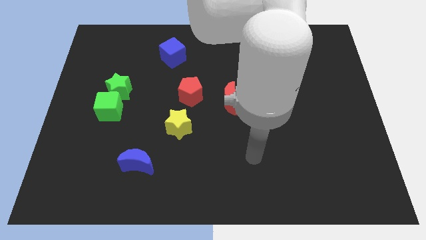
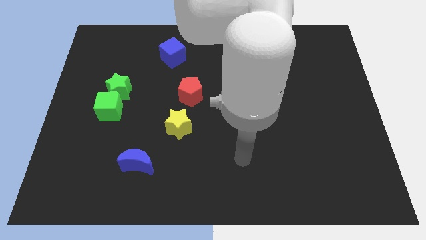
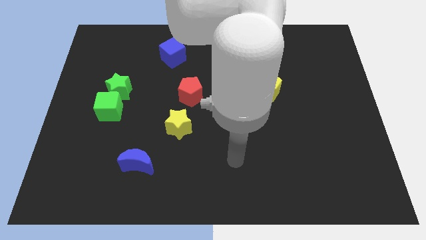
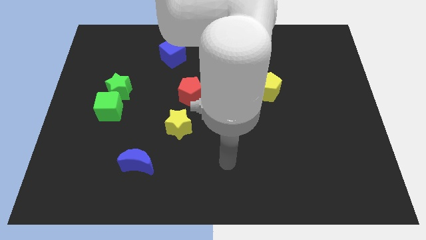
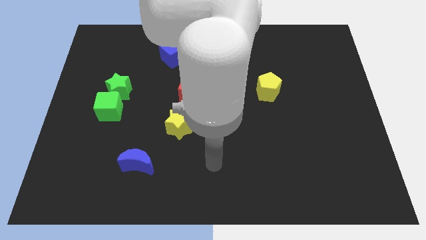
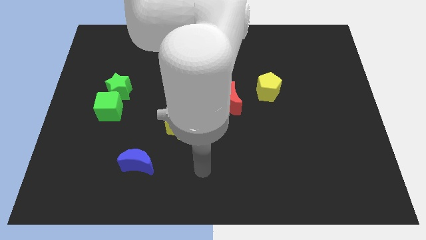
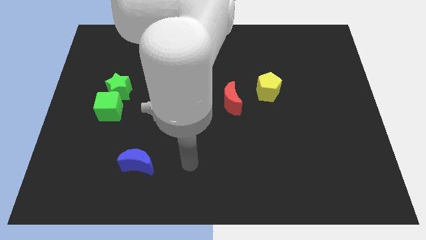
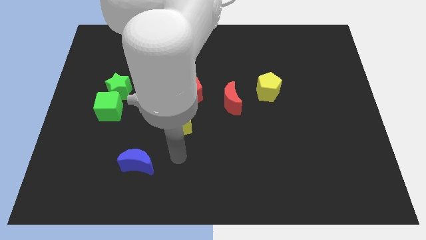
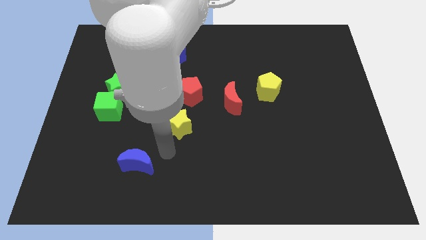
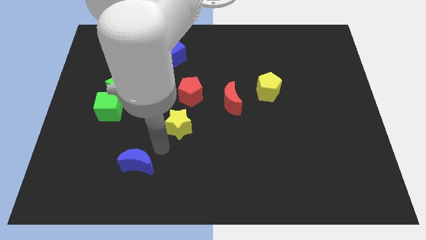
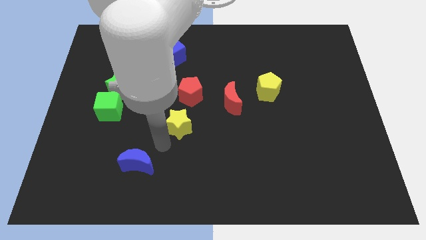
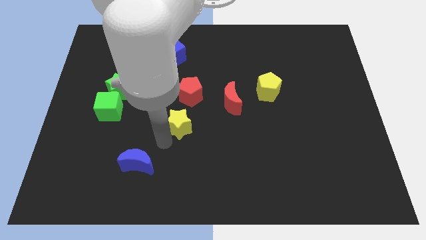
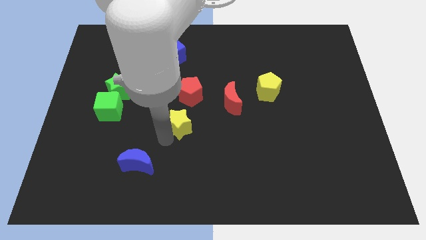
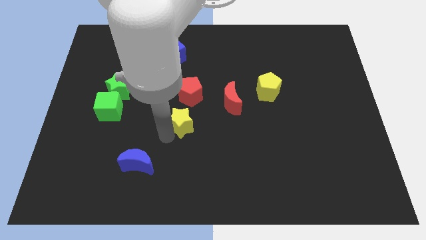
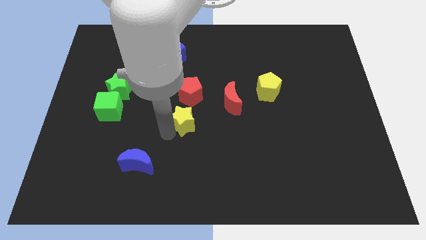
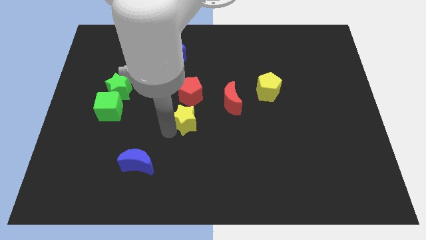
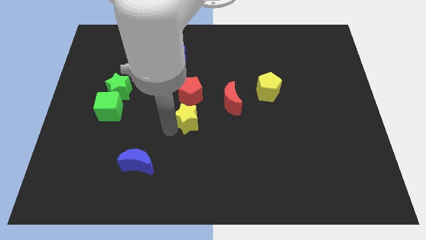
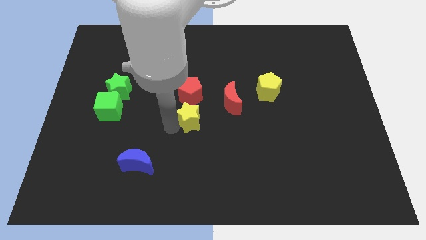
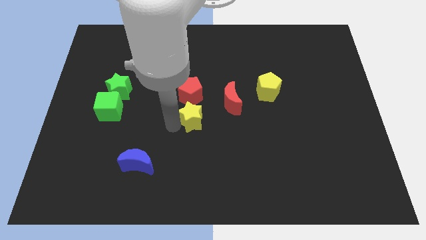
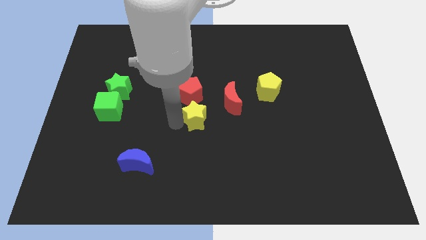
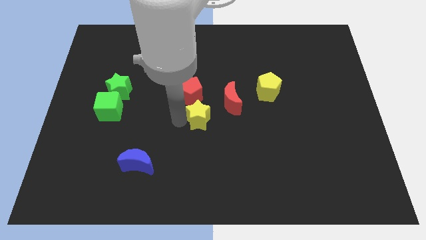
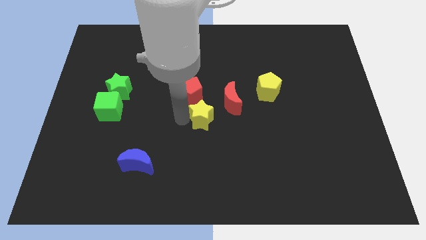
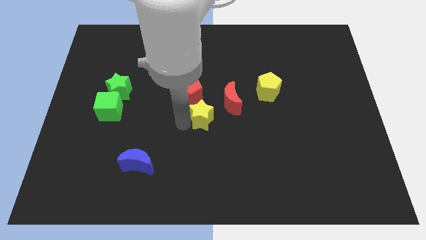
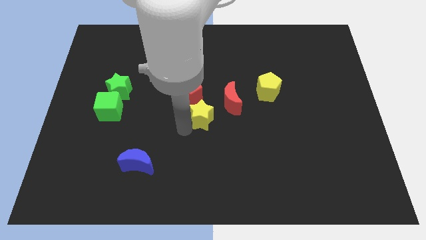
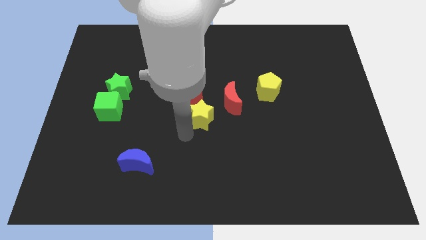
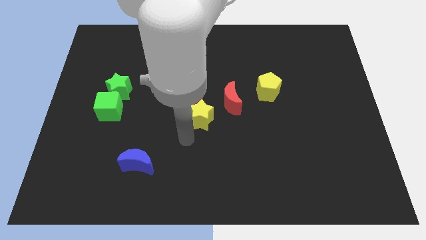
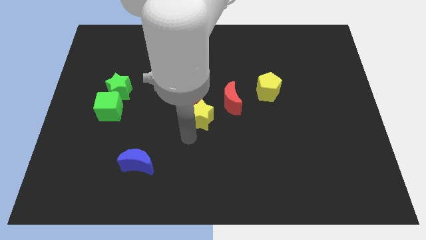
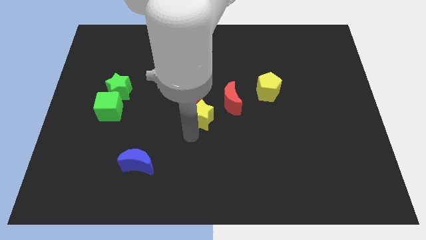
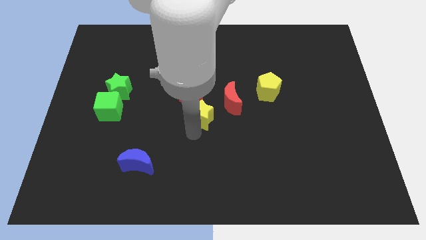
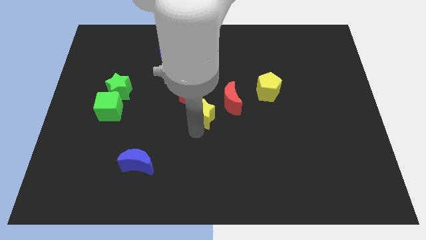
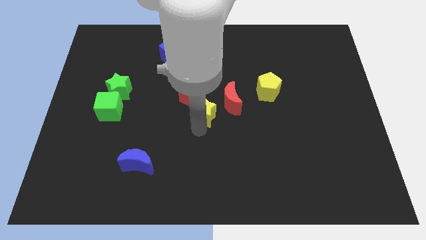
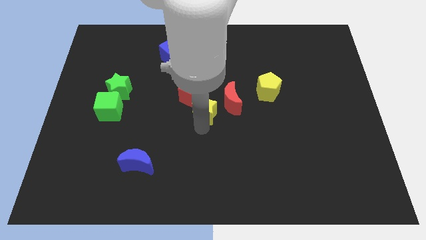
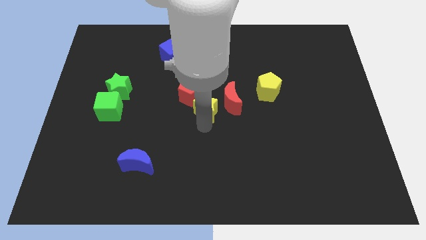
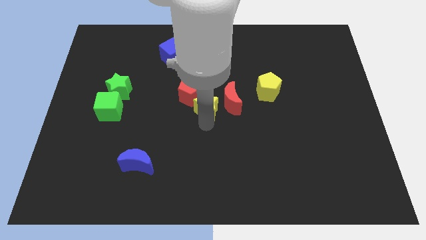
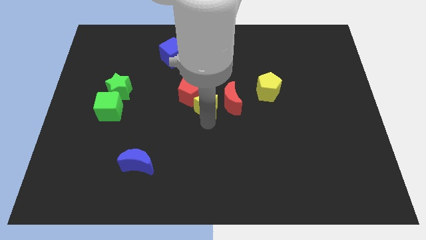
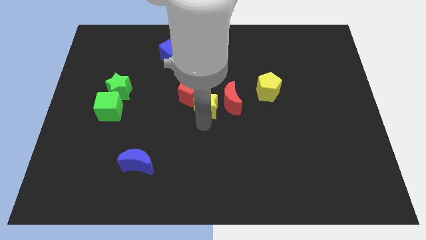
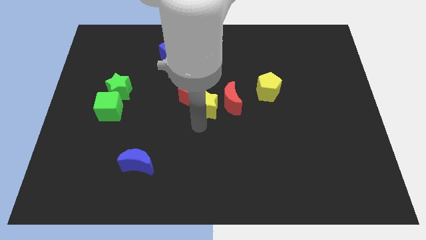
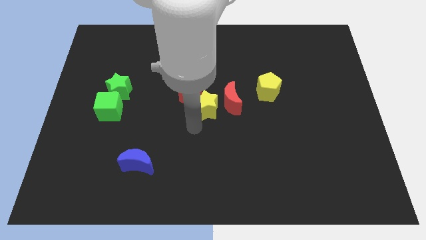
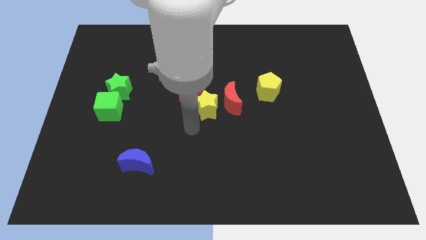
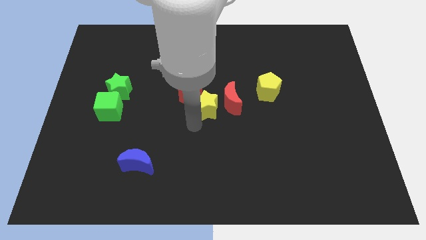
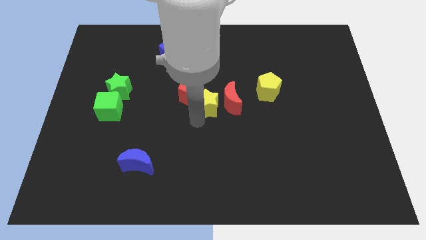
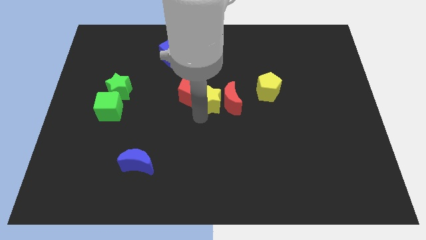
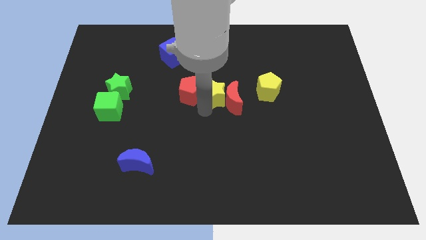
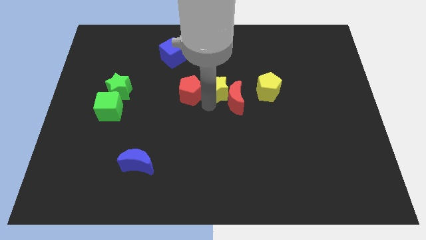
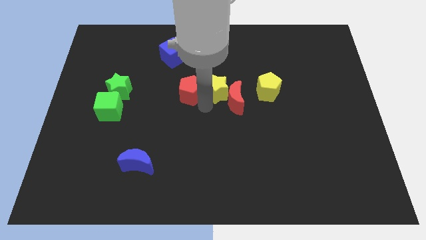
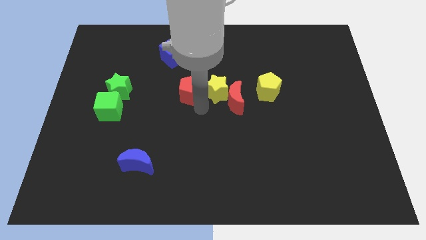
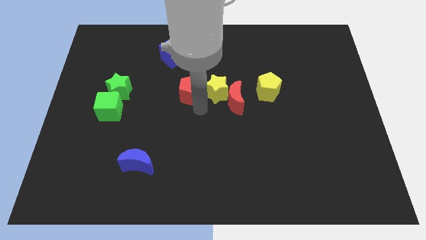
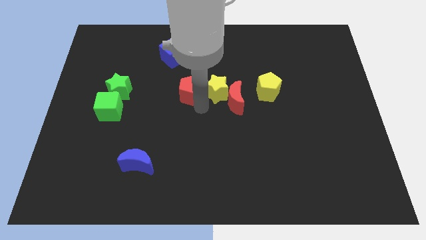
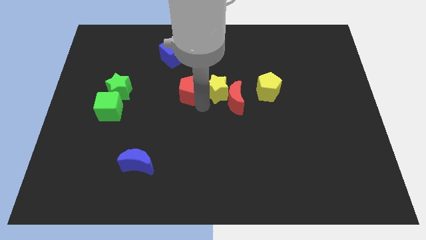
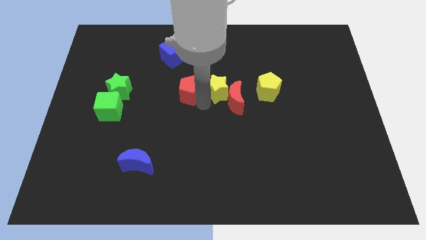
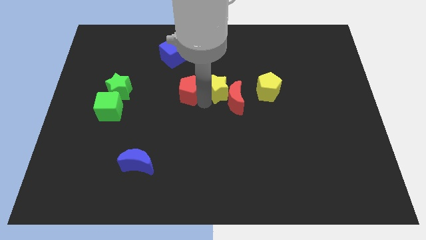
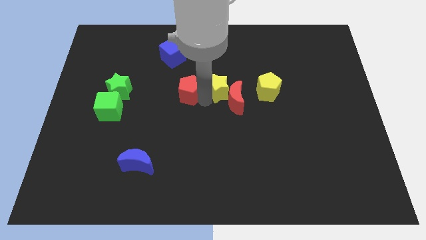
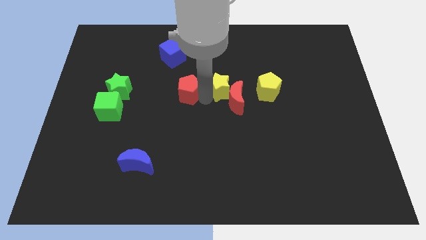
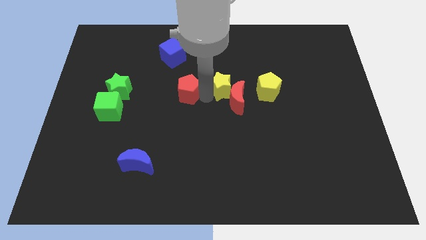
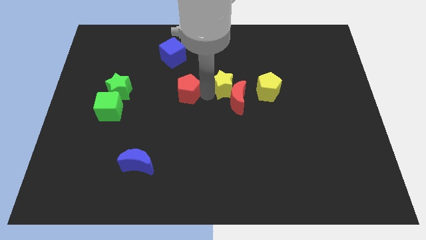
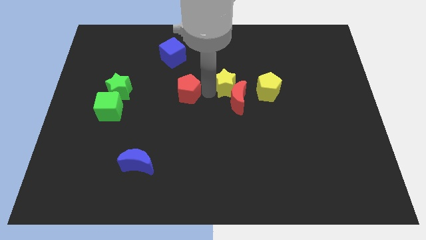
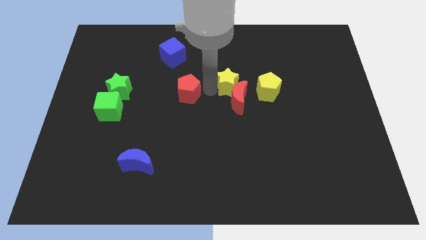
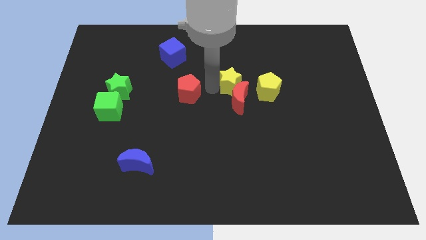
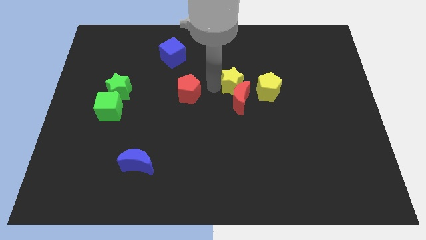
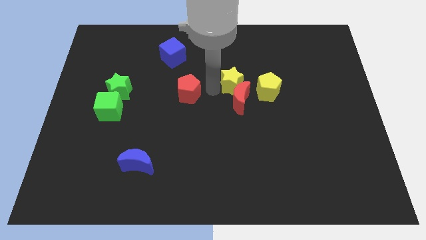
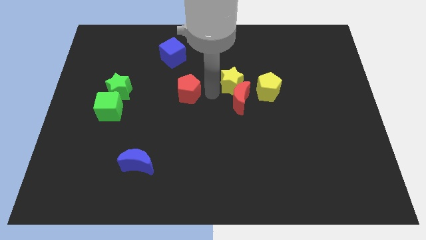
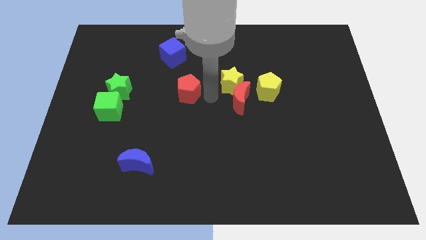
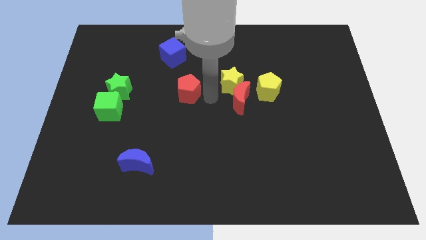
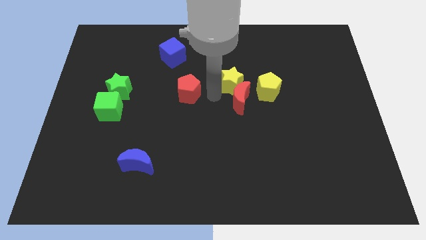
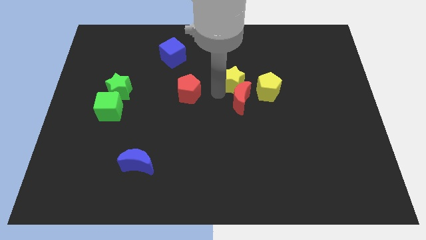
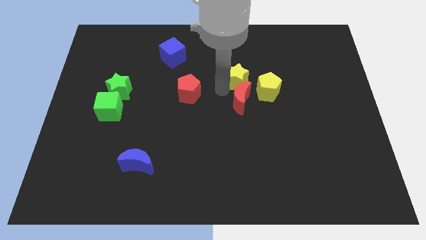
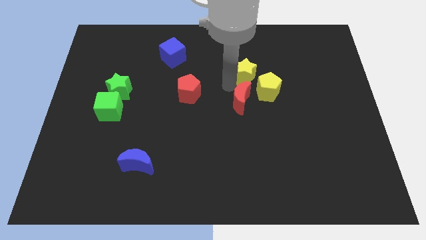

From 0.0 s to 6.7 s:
slide the yellow star up and then to the right

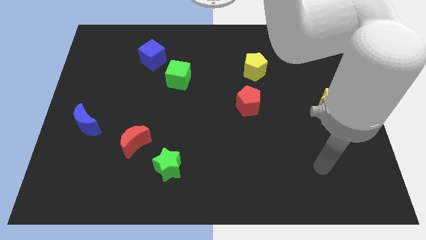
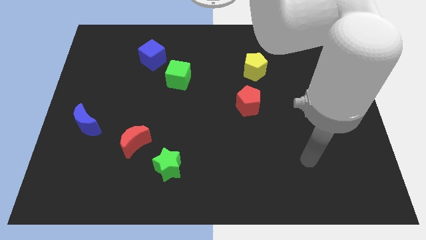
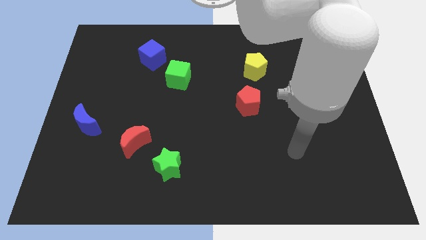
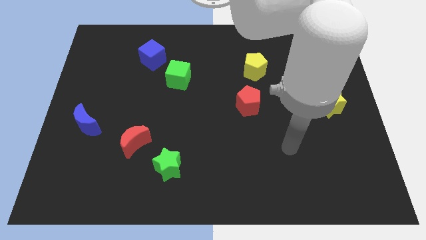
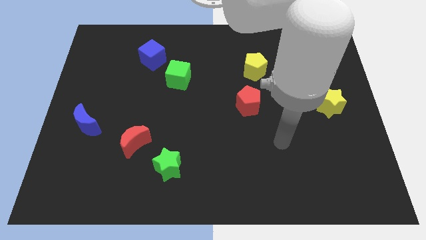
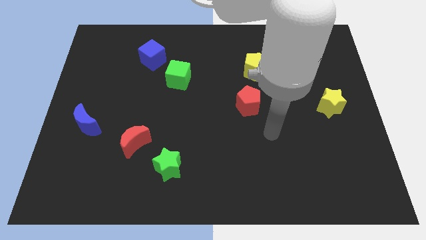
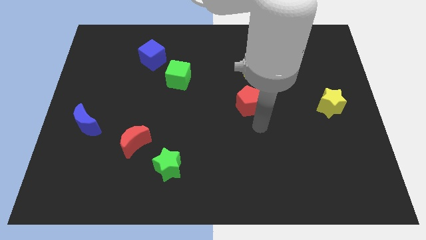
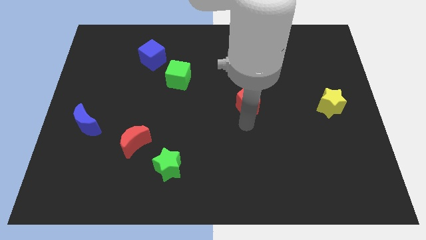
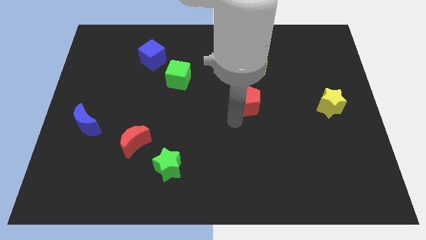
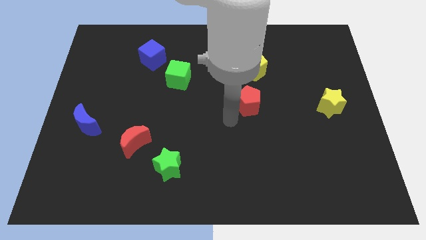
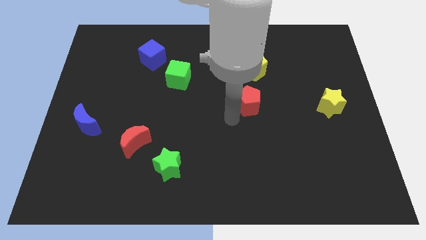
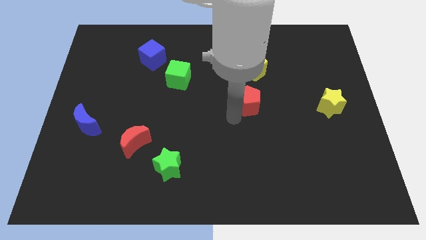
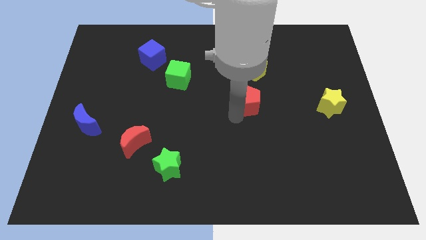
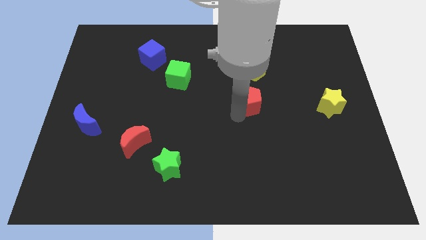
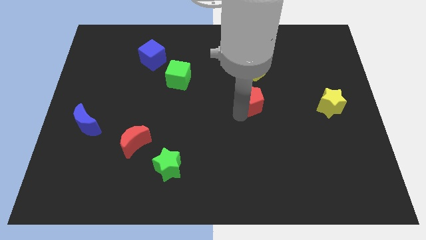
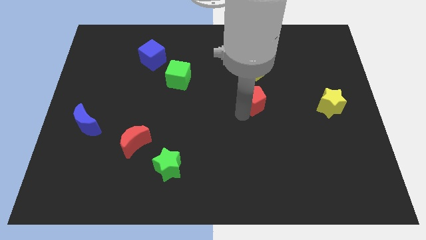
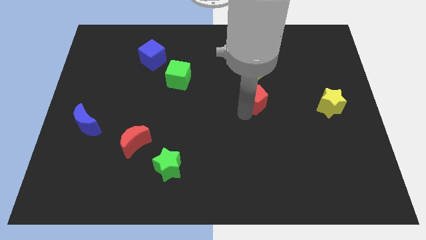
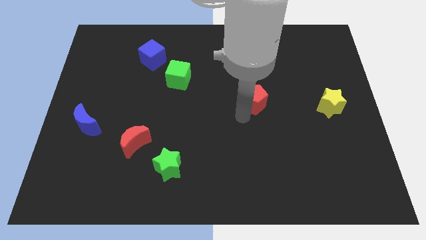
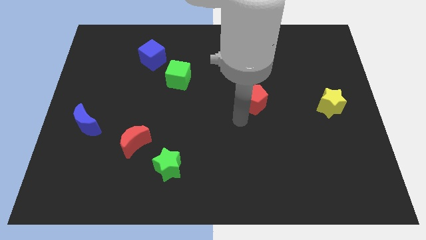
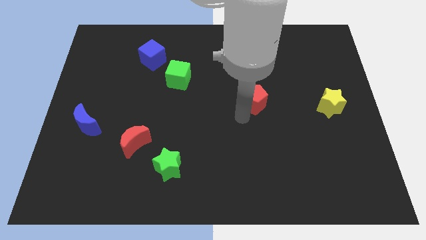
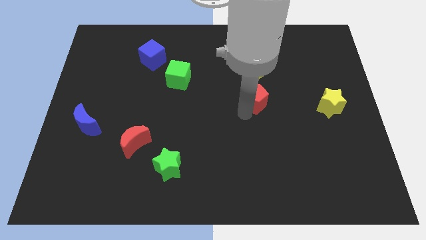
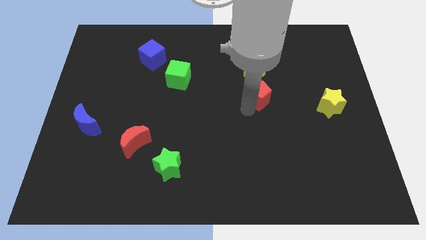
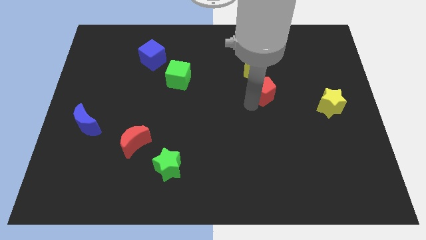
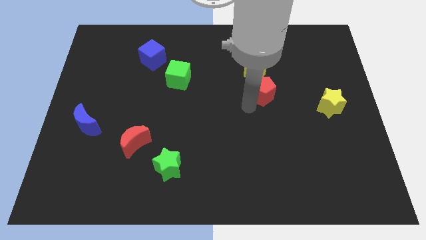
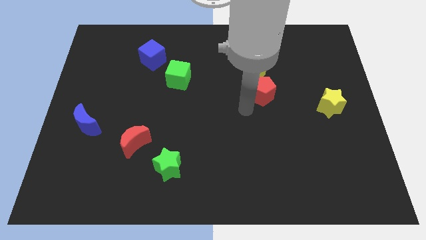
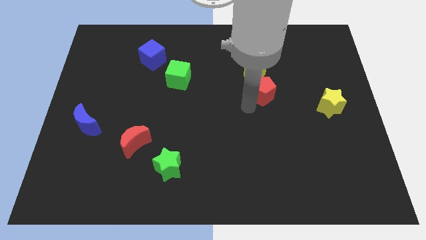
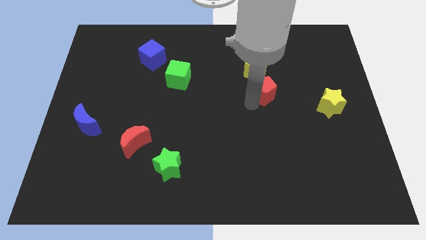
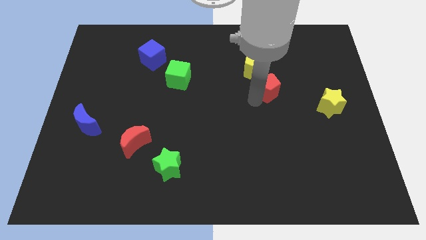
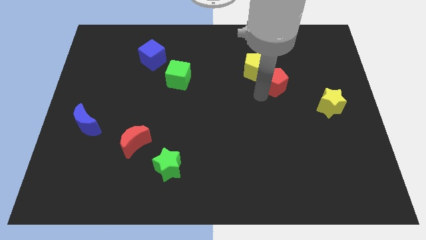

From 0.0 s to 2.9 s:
slide the red pentagon upwards and to the right diagonally a little bit
